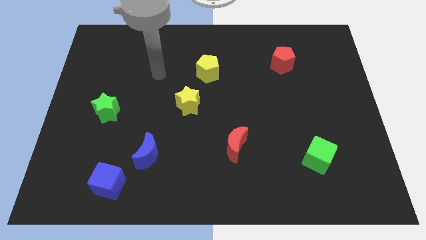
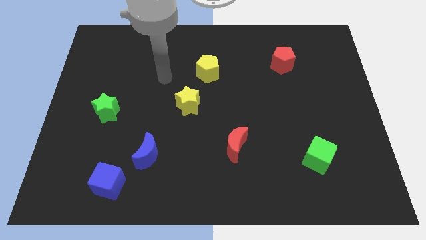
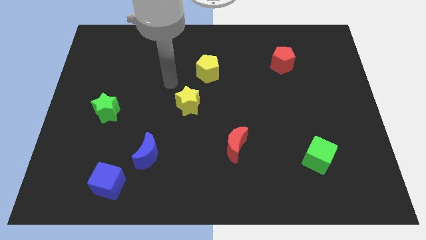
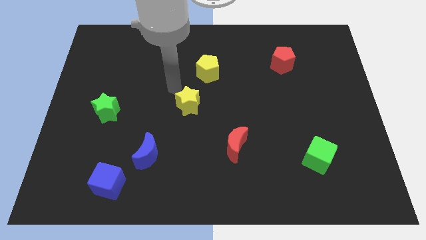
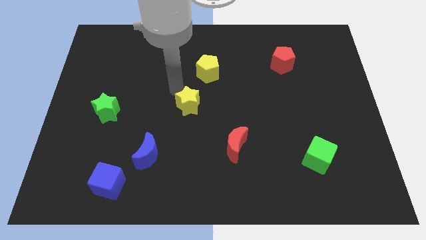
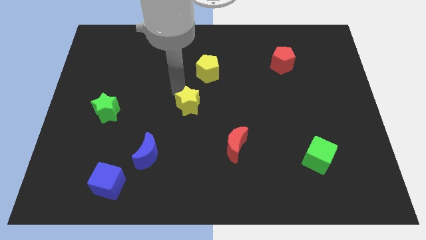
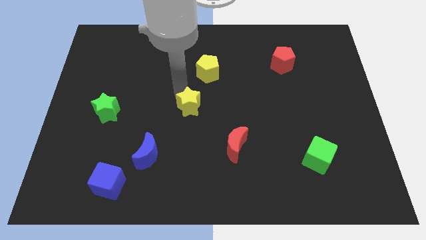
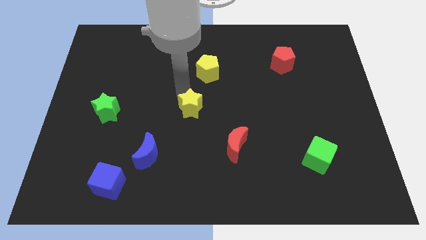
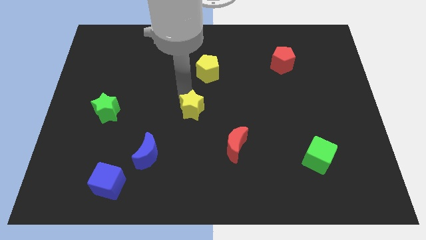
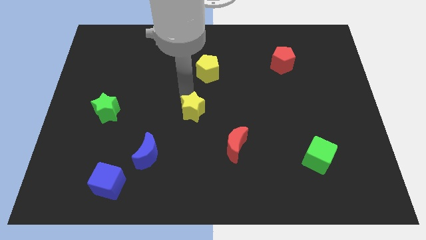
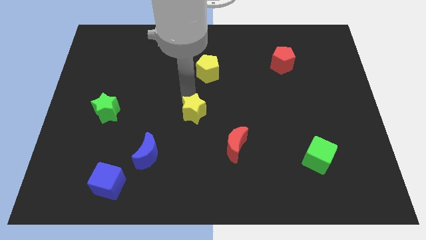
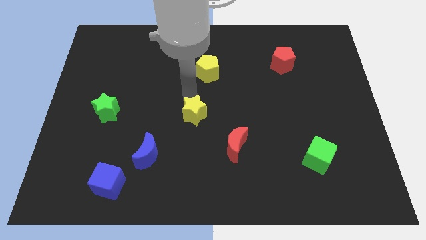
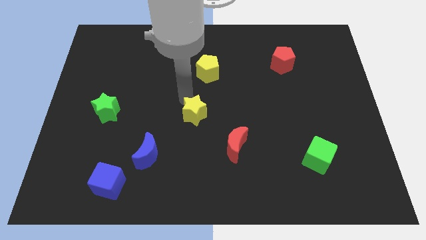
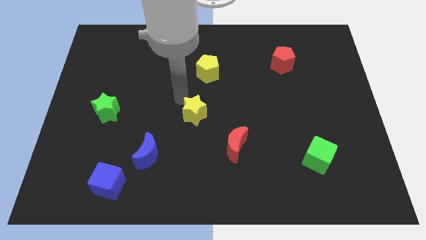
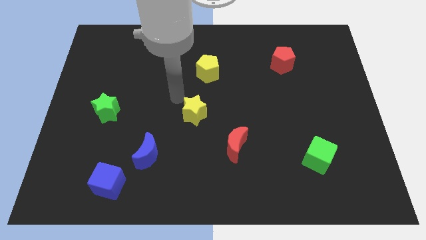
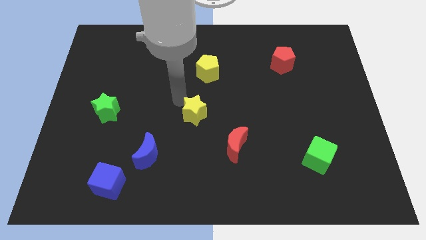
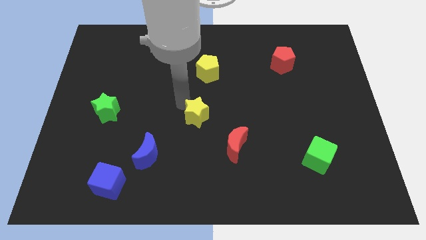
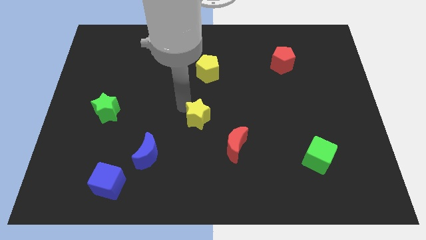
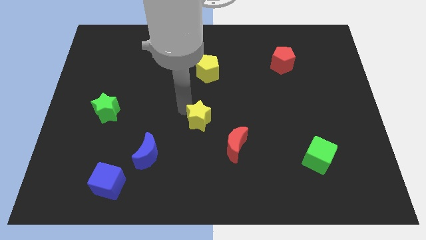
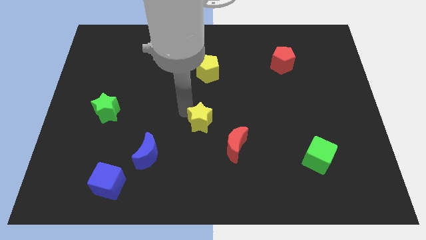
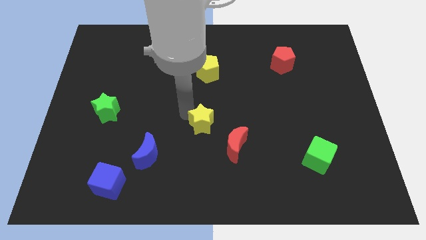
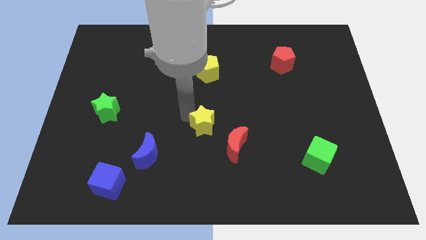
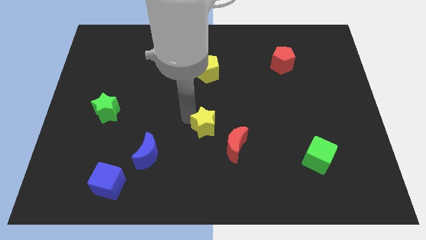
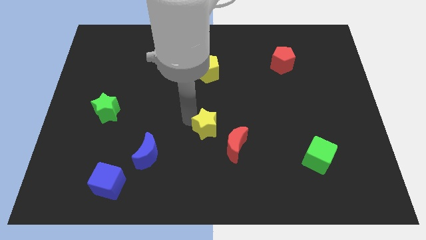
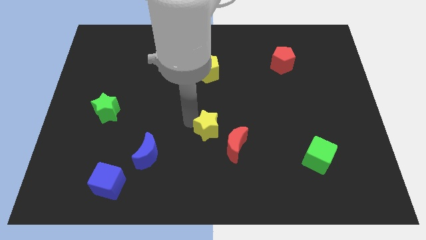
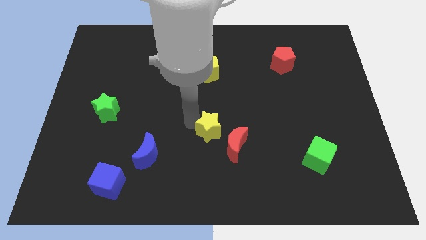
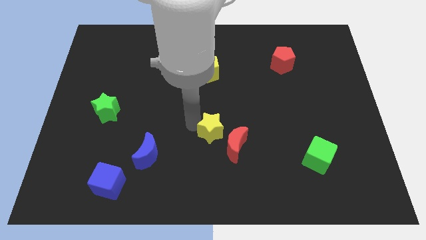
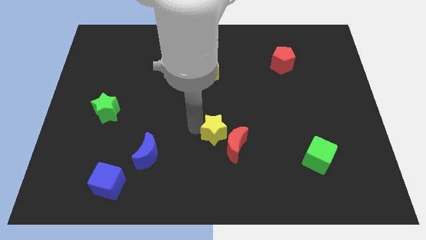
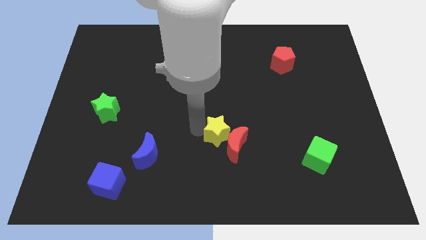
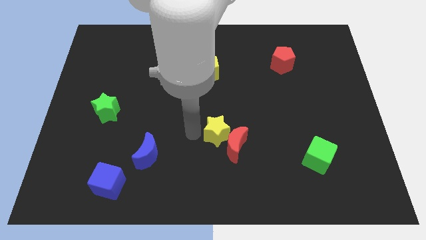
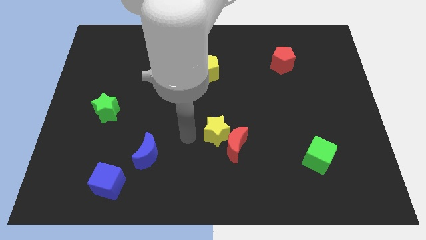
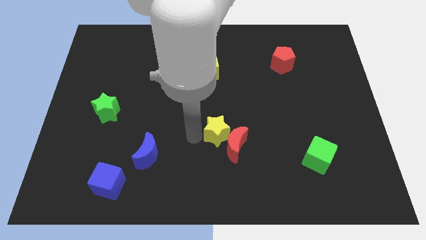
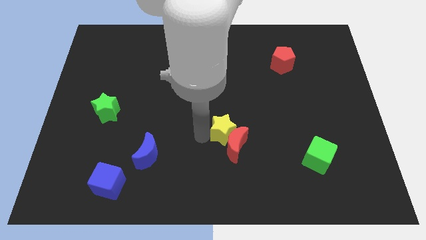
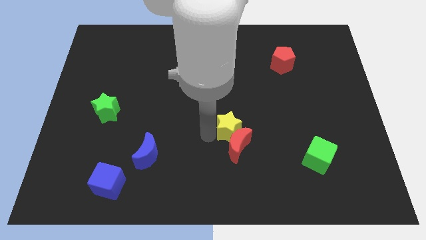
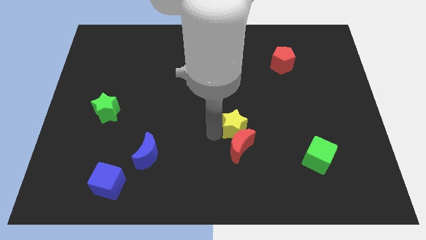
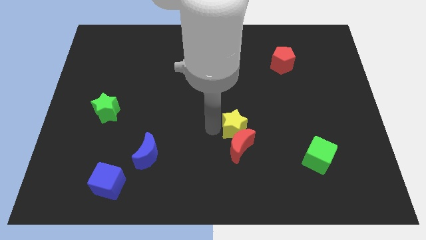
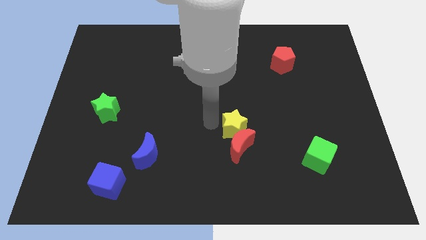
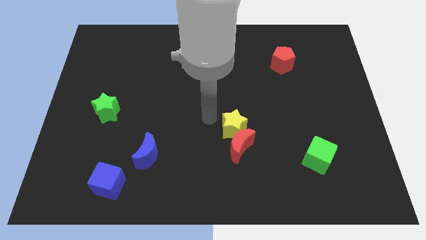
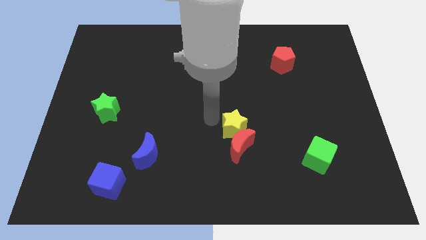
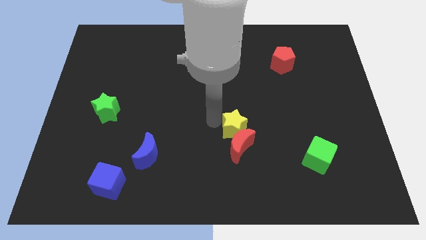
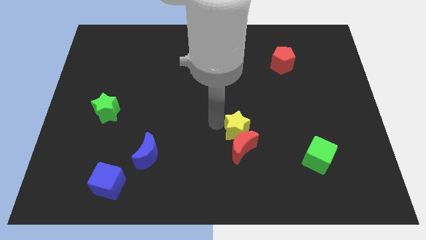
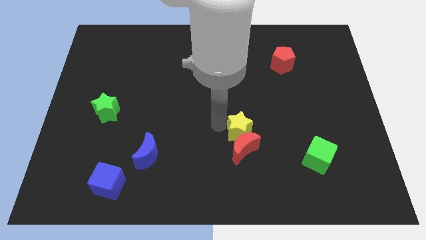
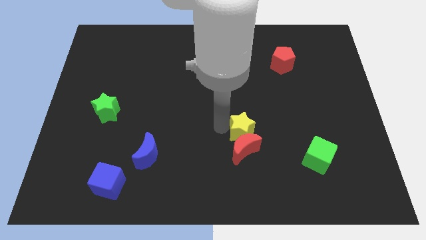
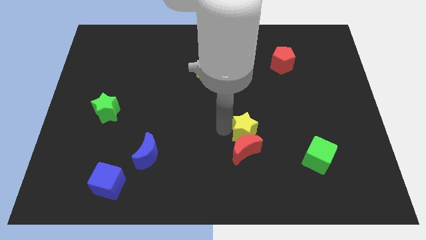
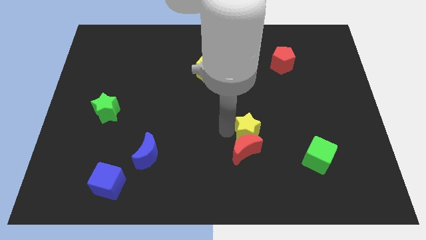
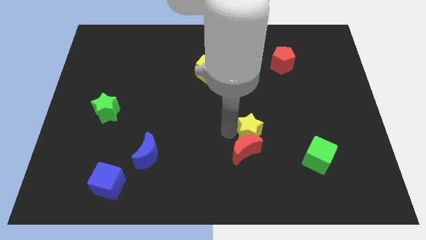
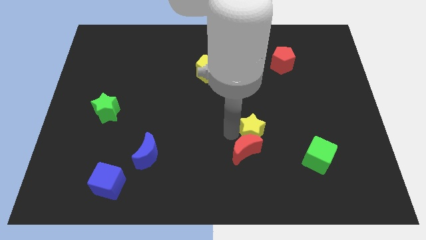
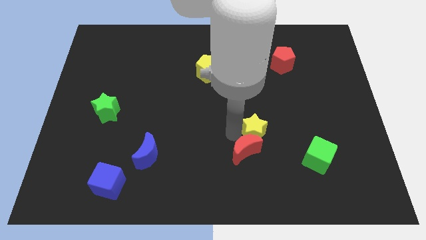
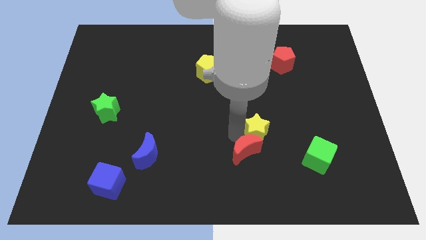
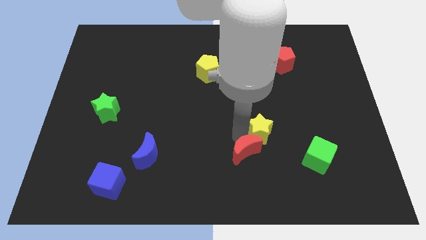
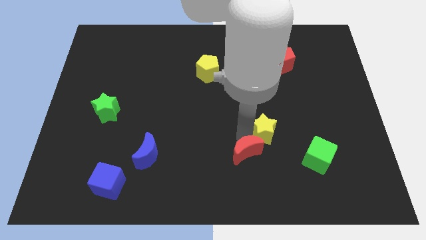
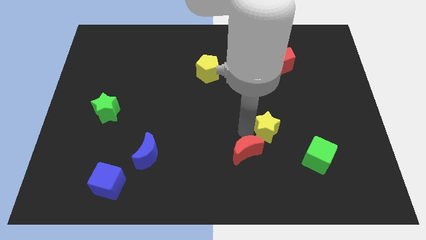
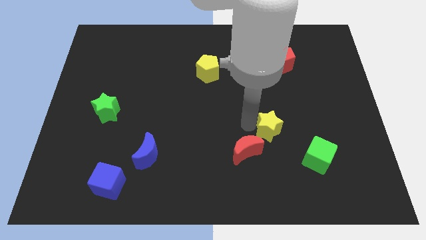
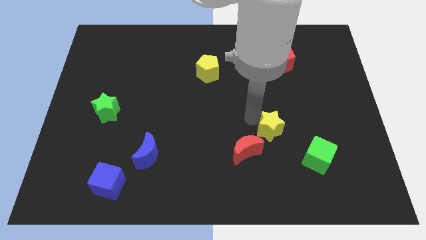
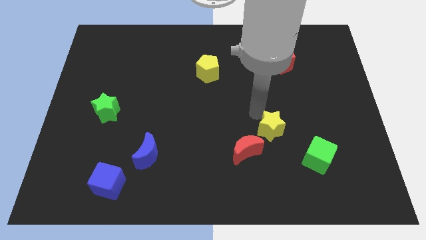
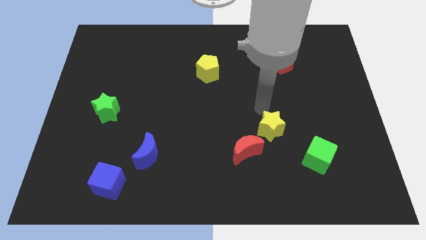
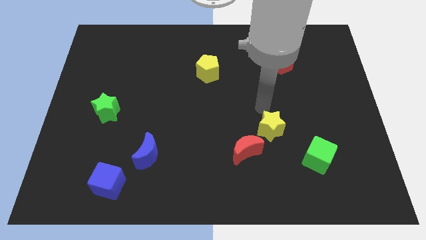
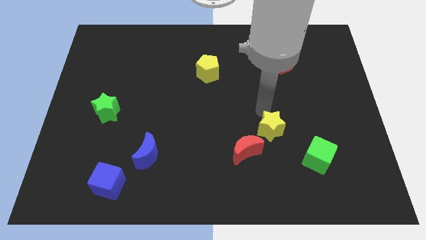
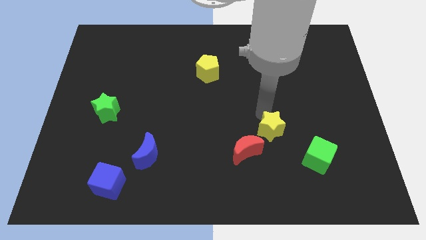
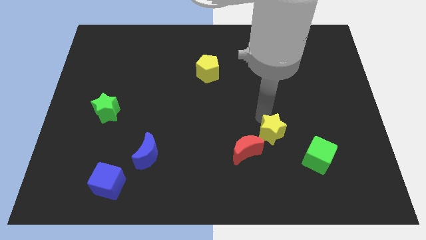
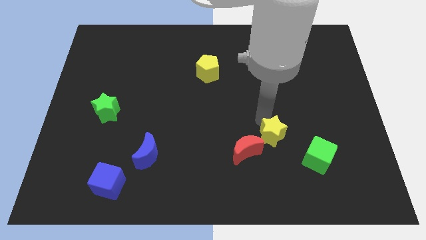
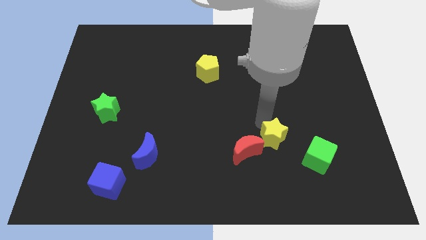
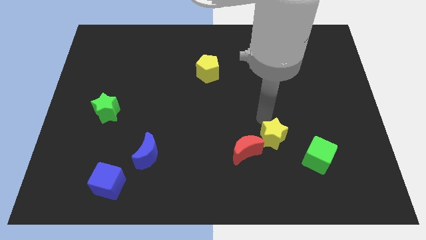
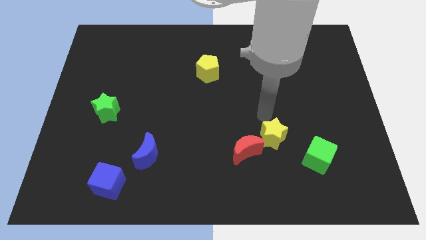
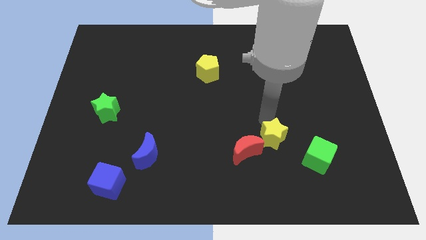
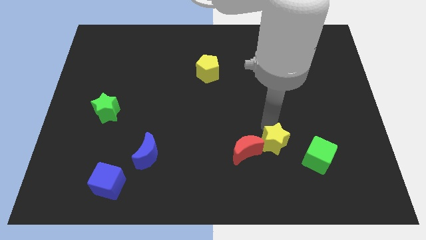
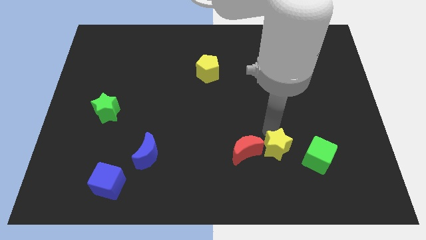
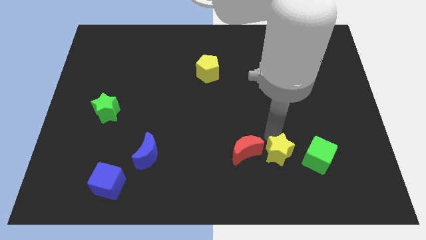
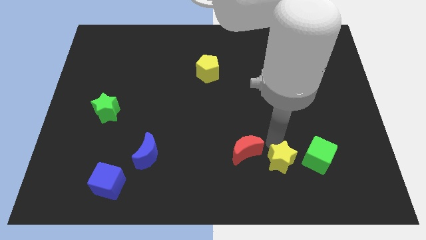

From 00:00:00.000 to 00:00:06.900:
slide the yellow star diagonally down and to the left of the green cube
